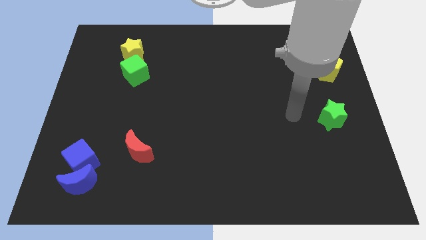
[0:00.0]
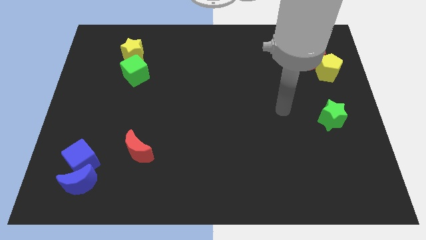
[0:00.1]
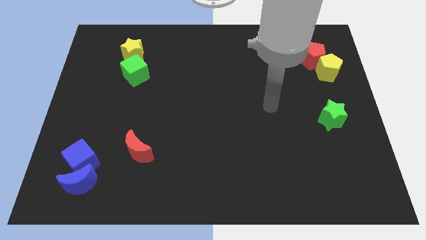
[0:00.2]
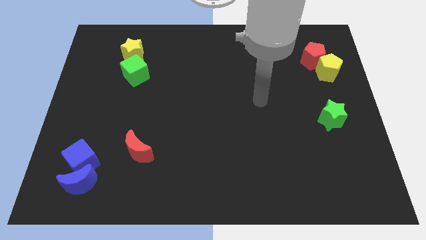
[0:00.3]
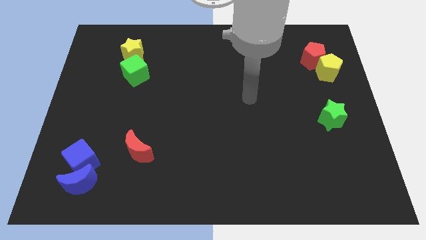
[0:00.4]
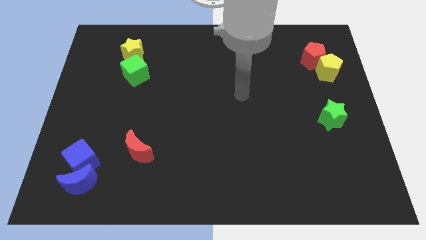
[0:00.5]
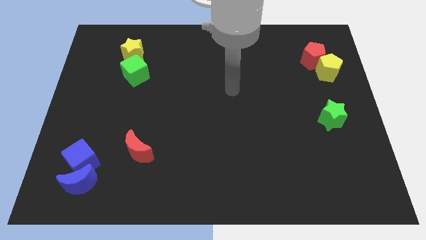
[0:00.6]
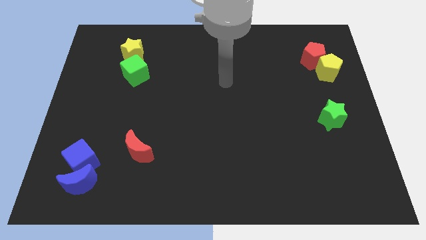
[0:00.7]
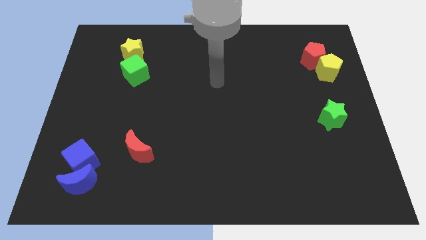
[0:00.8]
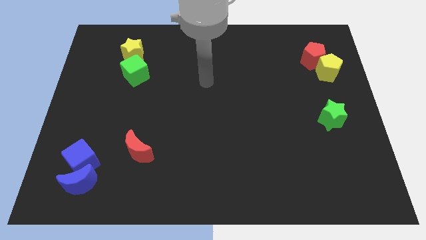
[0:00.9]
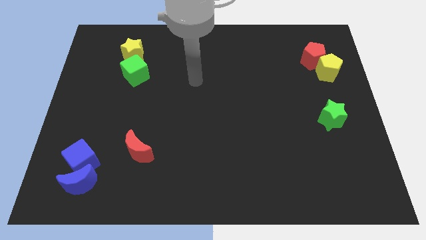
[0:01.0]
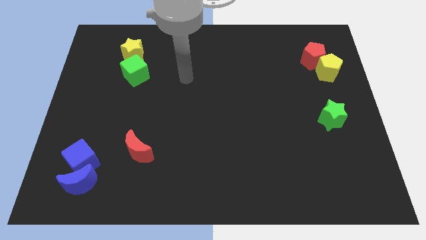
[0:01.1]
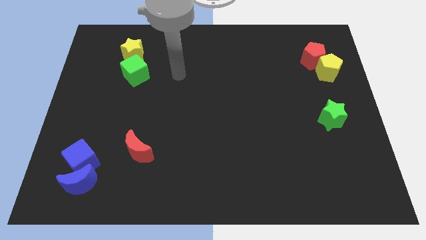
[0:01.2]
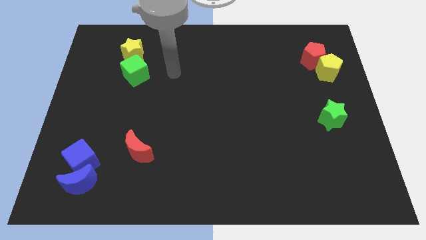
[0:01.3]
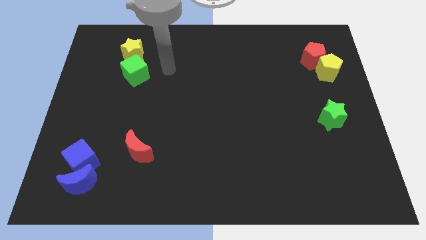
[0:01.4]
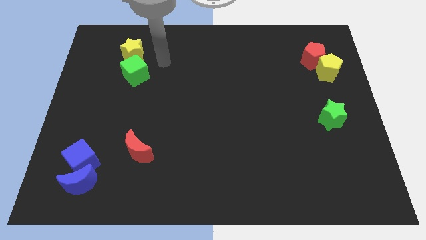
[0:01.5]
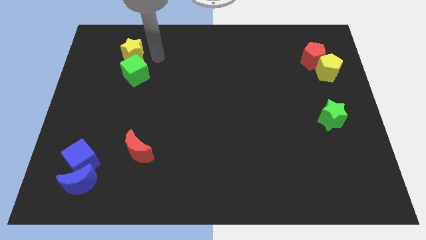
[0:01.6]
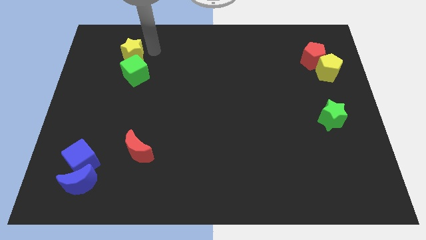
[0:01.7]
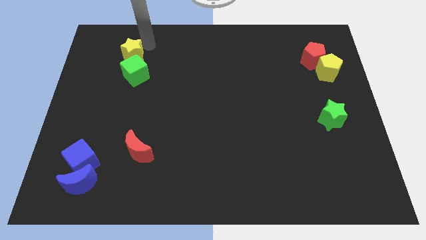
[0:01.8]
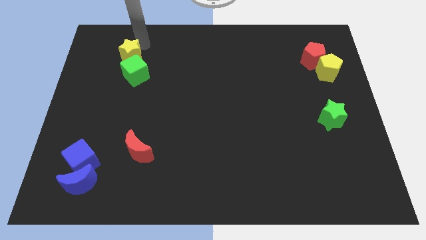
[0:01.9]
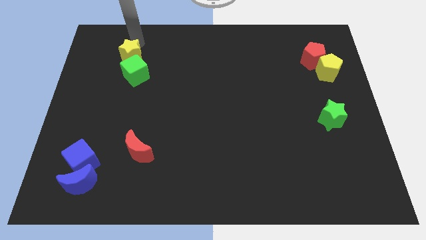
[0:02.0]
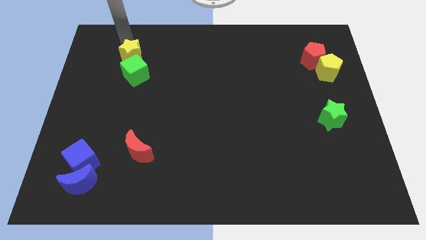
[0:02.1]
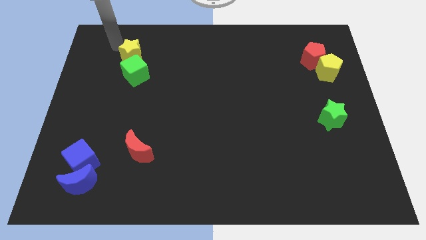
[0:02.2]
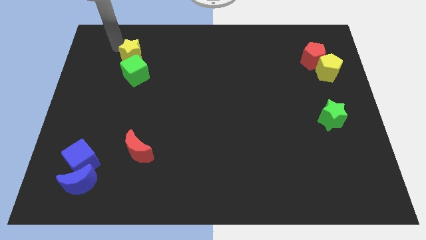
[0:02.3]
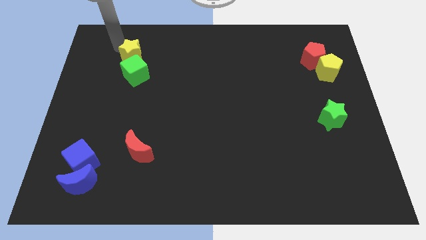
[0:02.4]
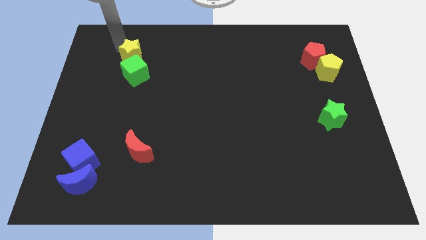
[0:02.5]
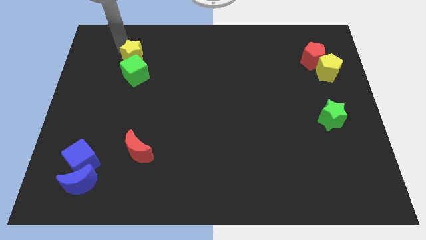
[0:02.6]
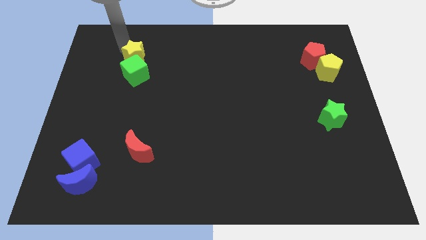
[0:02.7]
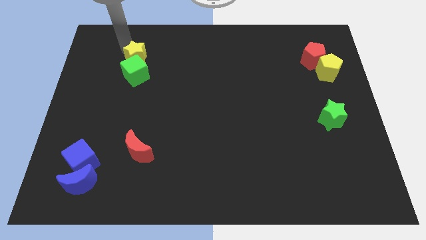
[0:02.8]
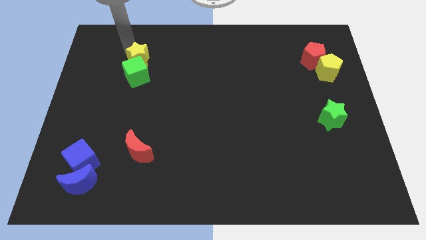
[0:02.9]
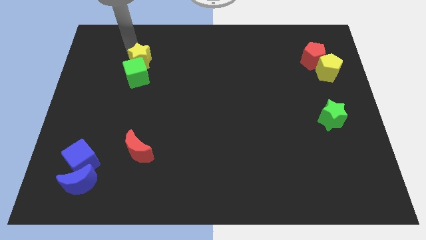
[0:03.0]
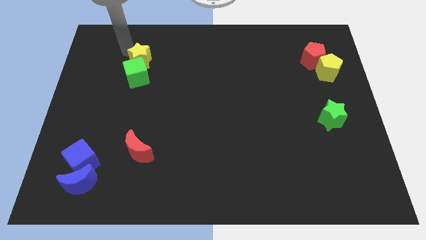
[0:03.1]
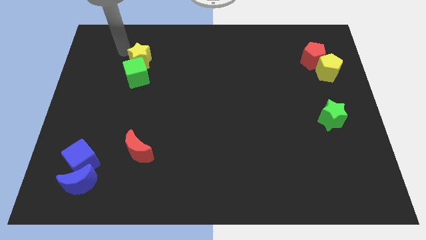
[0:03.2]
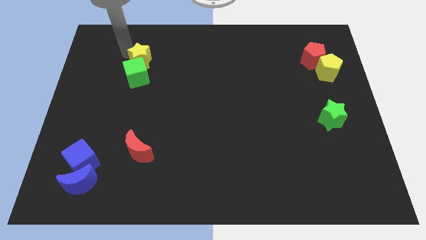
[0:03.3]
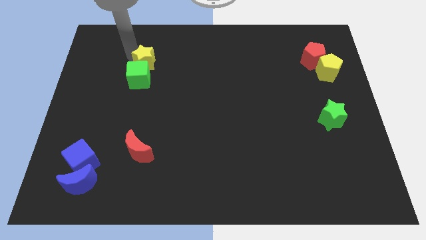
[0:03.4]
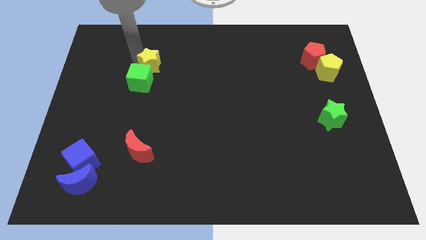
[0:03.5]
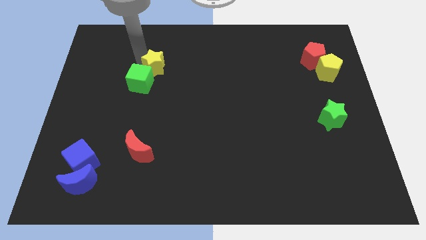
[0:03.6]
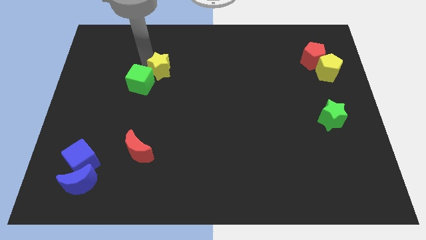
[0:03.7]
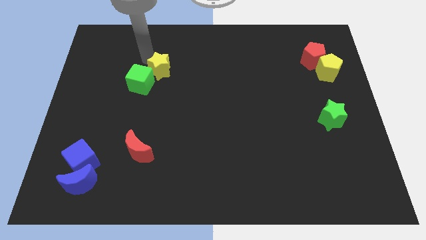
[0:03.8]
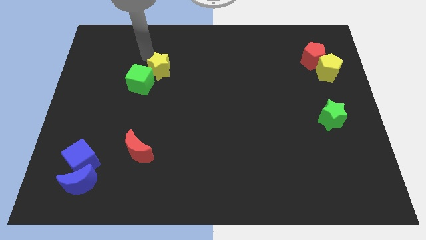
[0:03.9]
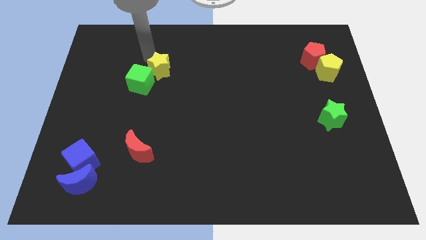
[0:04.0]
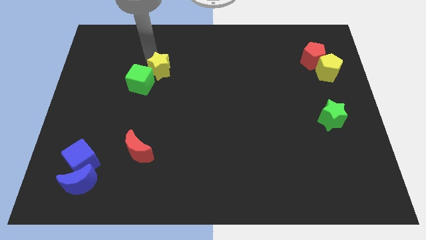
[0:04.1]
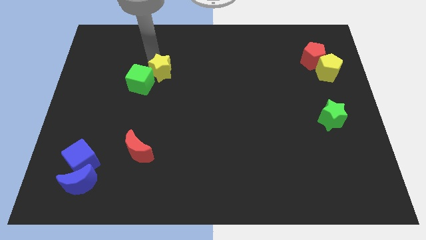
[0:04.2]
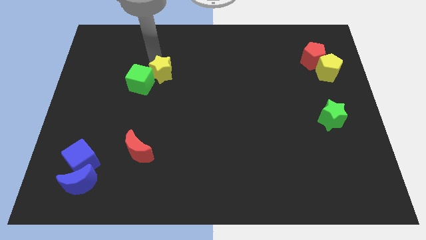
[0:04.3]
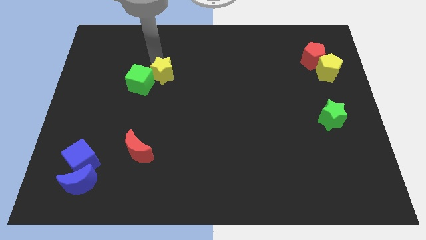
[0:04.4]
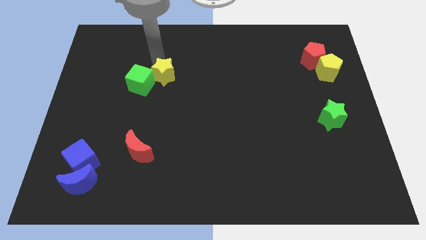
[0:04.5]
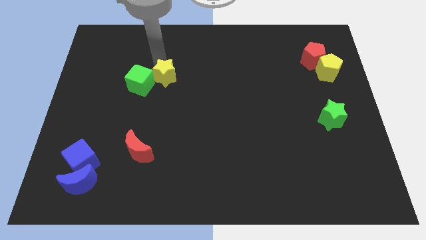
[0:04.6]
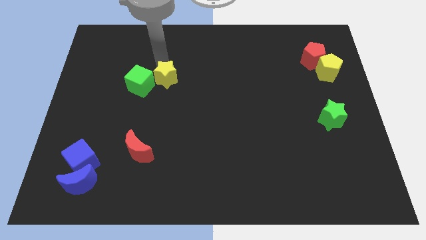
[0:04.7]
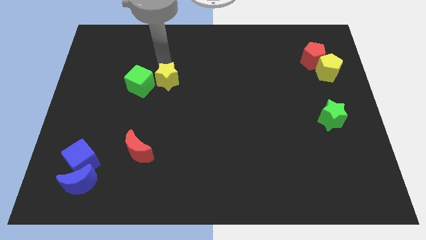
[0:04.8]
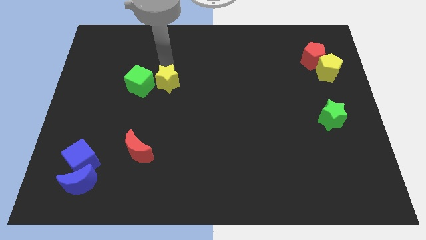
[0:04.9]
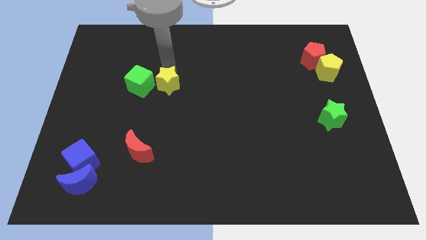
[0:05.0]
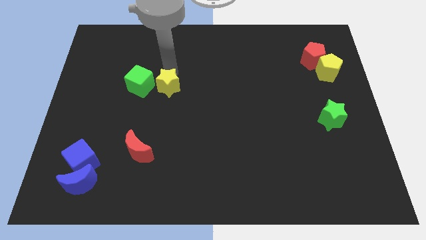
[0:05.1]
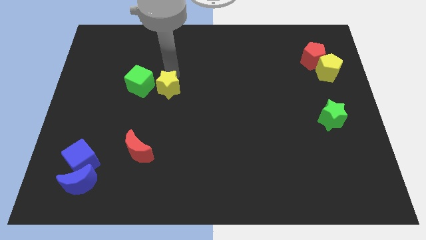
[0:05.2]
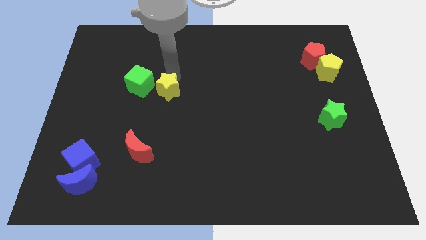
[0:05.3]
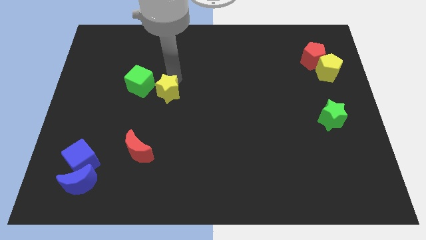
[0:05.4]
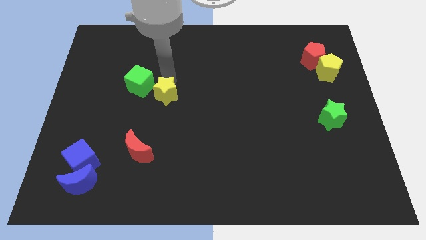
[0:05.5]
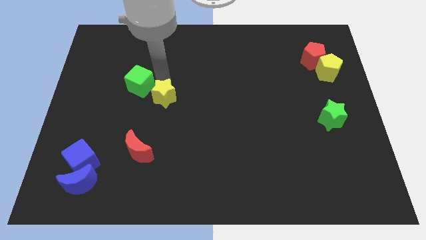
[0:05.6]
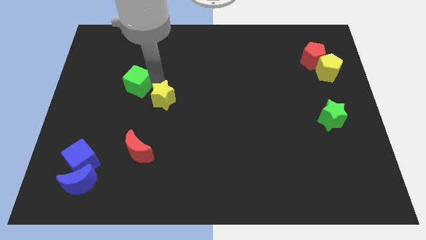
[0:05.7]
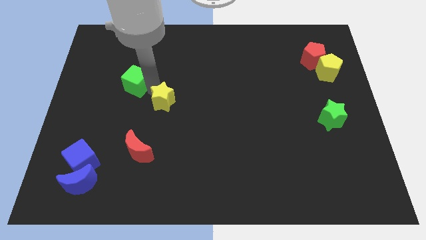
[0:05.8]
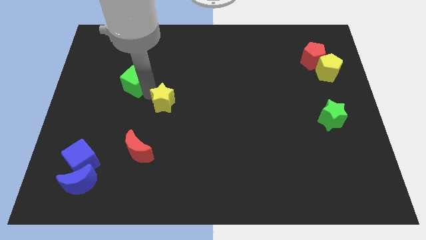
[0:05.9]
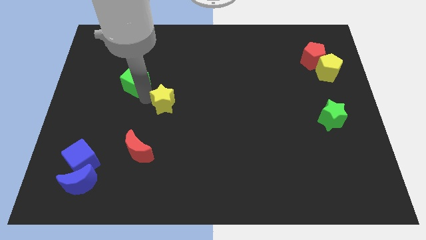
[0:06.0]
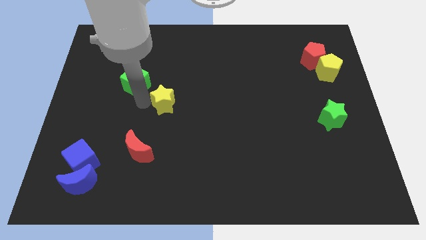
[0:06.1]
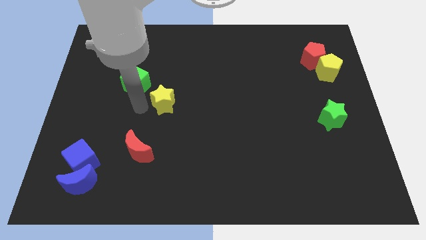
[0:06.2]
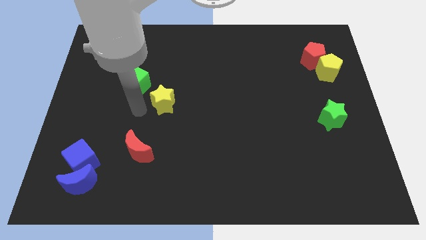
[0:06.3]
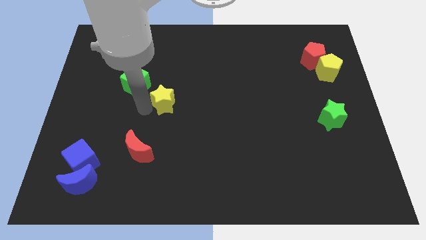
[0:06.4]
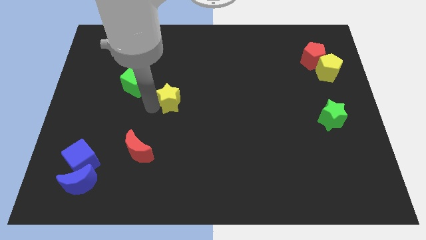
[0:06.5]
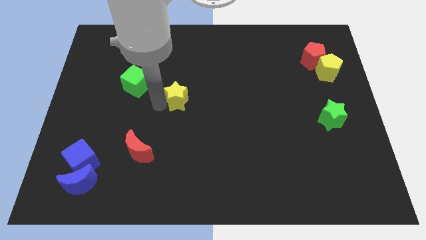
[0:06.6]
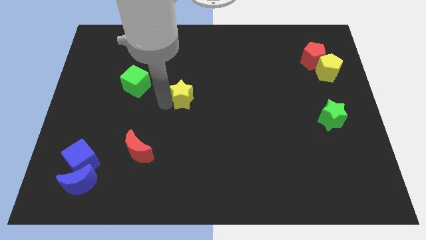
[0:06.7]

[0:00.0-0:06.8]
move the yellow star diagonally downwards and right

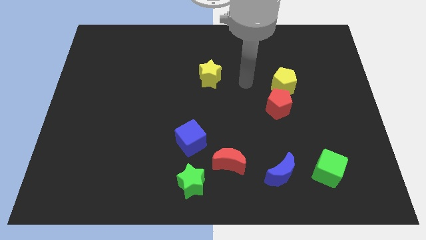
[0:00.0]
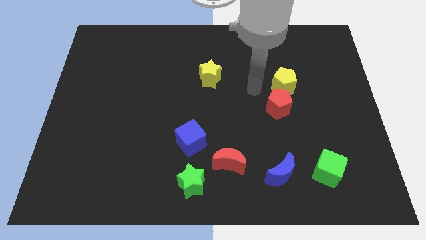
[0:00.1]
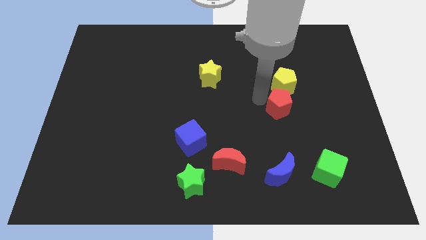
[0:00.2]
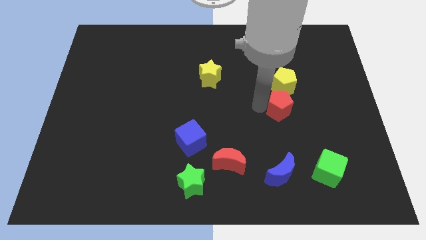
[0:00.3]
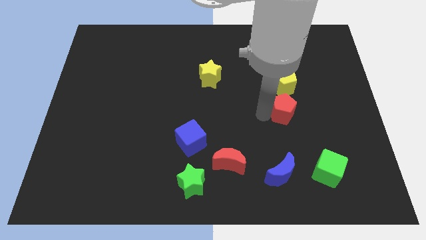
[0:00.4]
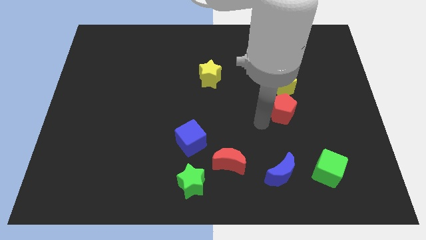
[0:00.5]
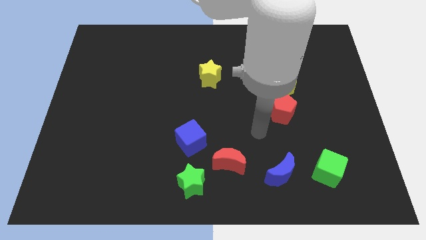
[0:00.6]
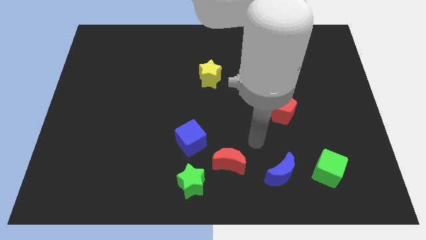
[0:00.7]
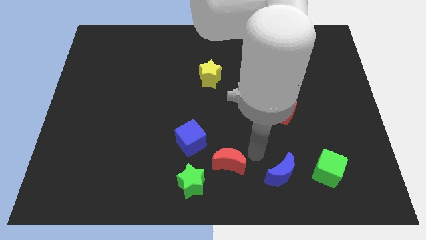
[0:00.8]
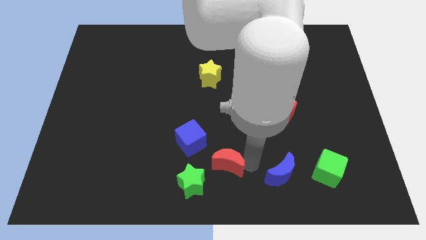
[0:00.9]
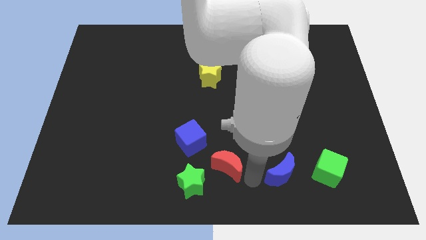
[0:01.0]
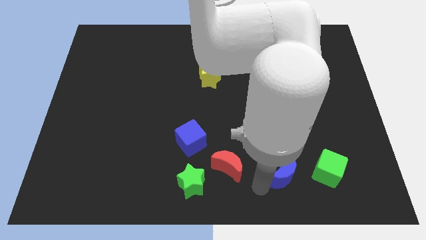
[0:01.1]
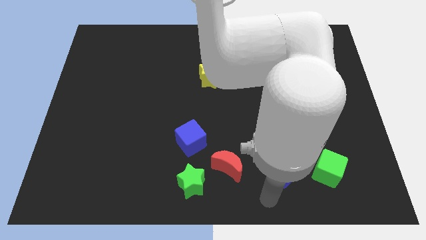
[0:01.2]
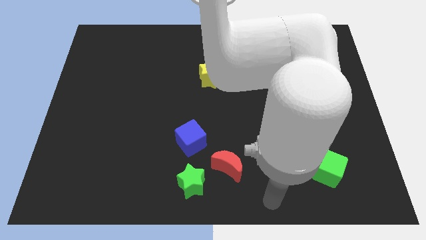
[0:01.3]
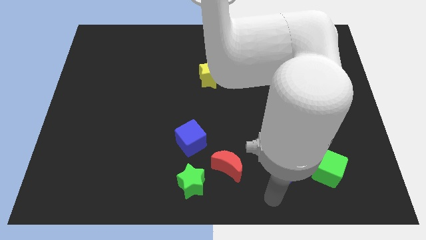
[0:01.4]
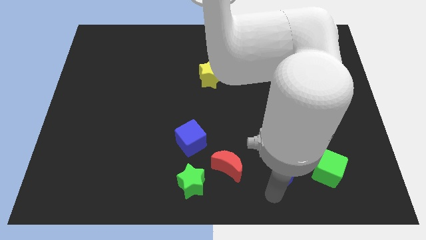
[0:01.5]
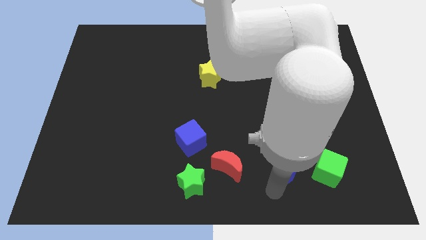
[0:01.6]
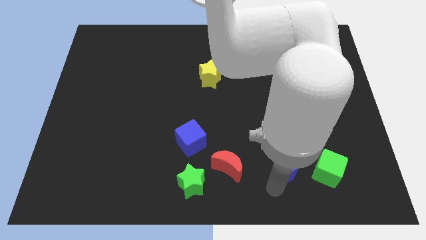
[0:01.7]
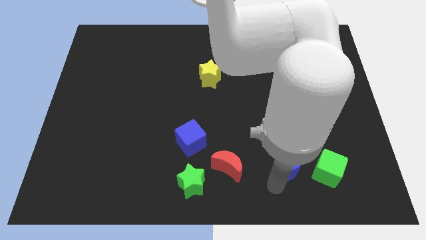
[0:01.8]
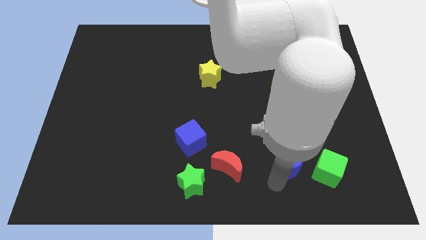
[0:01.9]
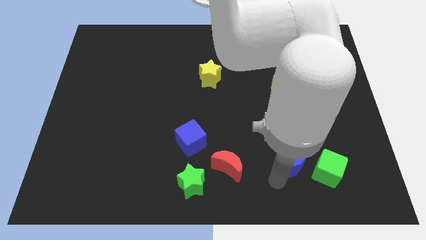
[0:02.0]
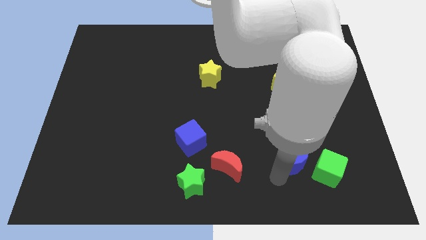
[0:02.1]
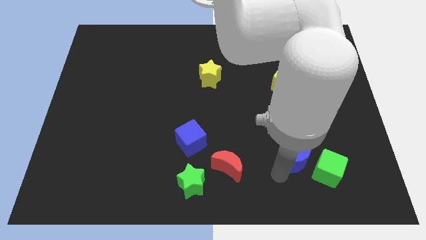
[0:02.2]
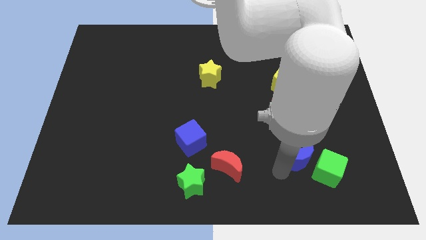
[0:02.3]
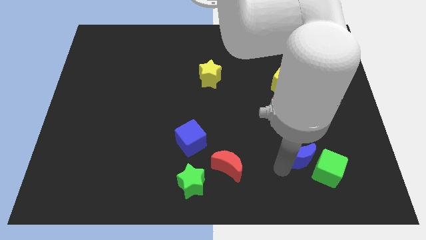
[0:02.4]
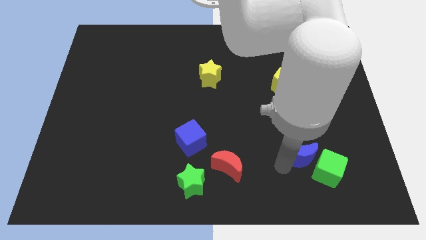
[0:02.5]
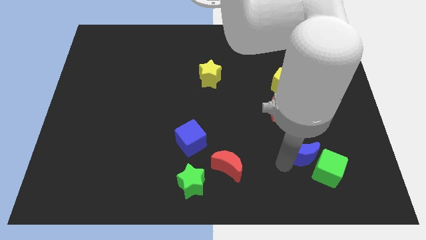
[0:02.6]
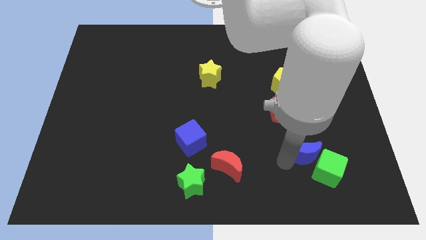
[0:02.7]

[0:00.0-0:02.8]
push the blue moon somewhat up and to the right diagonally
